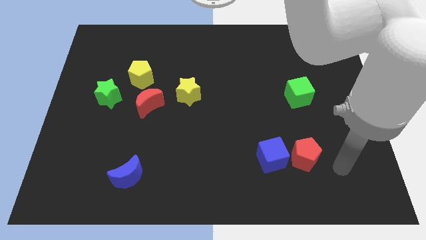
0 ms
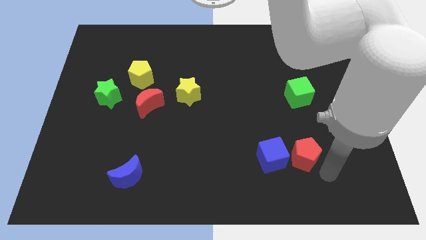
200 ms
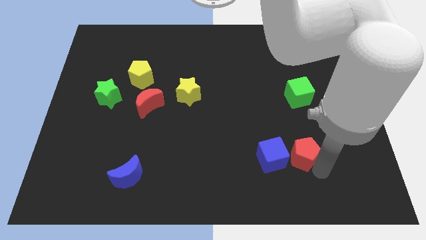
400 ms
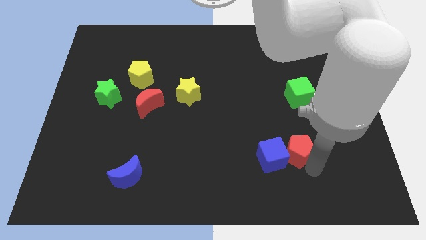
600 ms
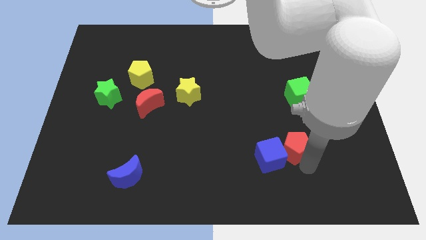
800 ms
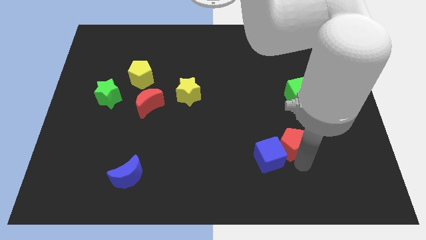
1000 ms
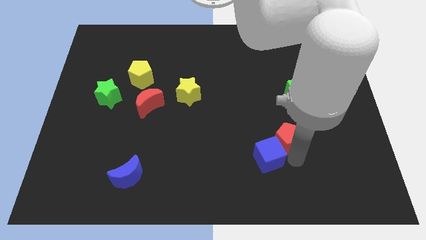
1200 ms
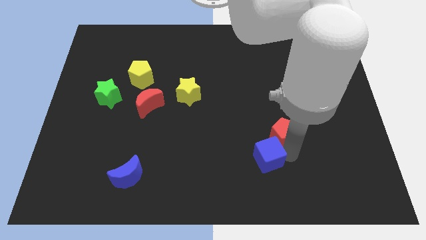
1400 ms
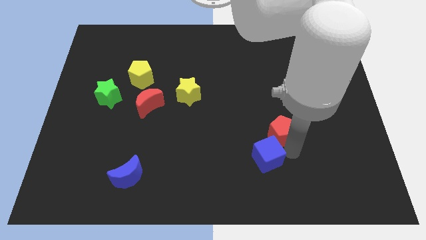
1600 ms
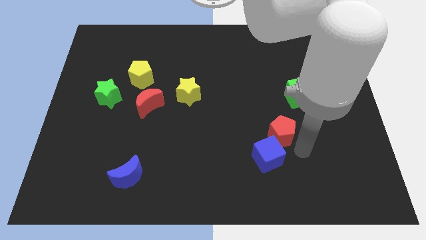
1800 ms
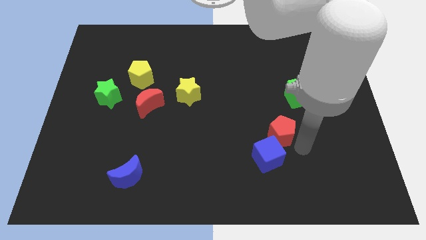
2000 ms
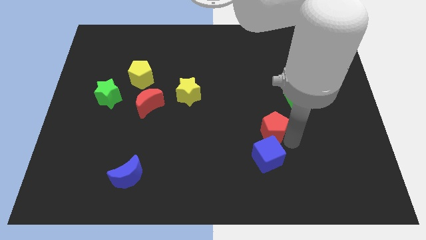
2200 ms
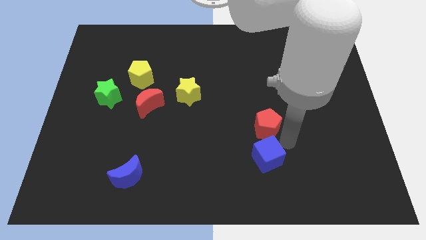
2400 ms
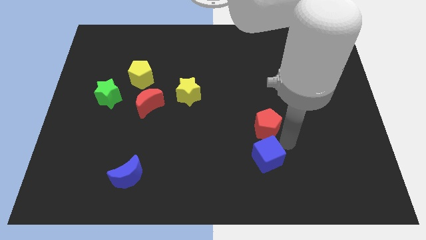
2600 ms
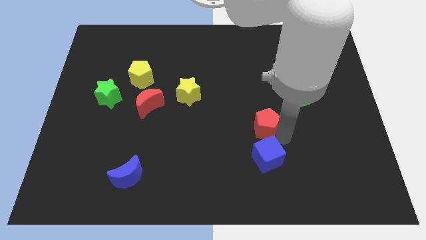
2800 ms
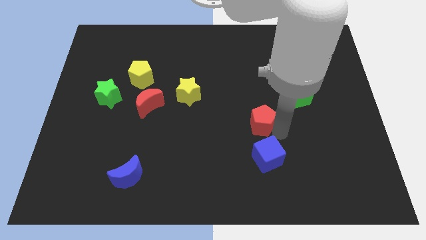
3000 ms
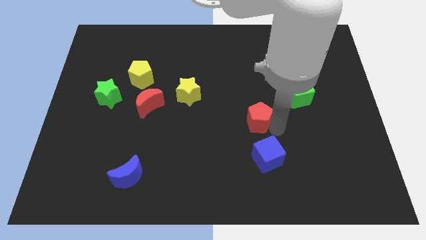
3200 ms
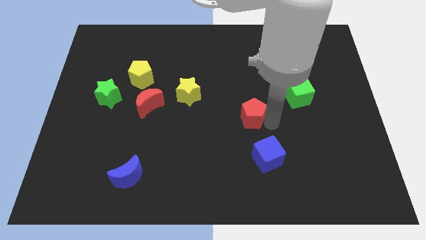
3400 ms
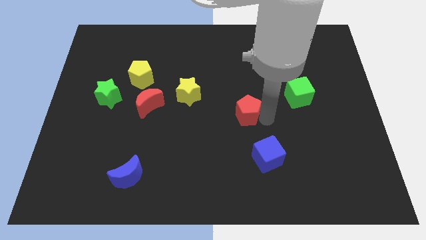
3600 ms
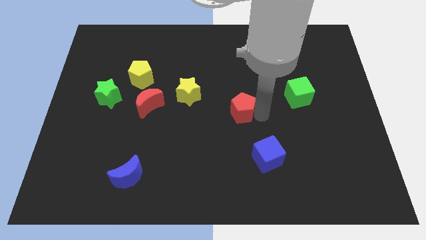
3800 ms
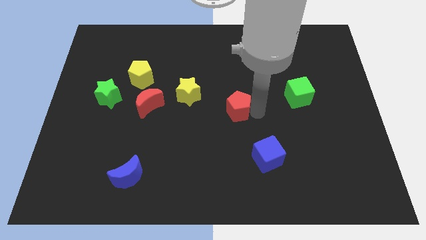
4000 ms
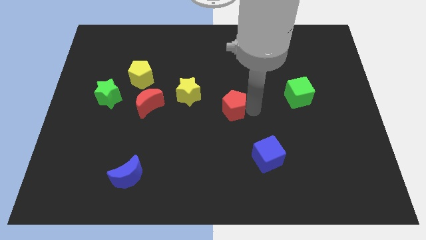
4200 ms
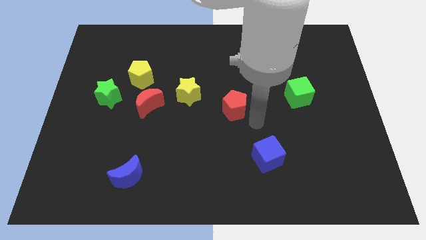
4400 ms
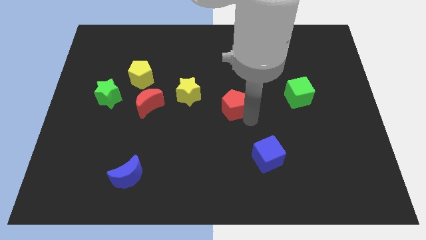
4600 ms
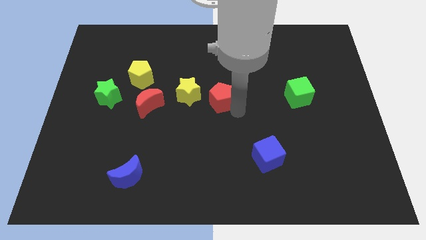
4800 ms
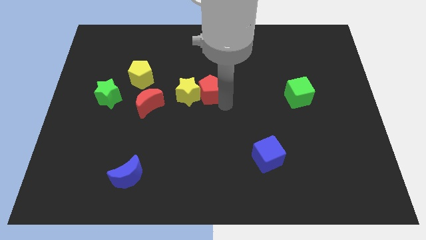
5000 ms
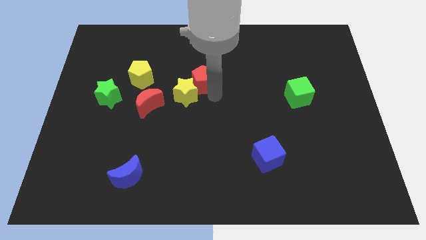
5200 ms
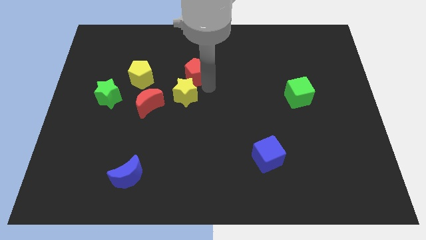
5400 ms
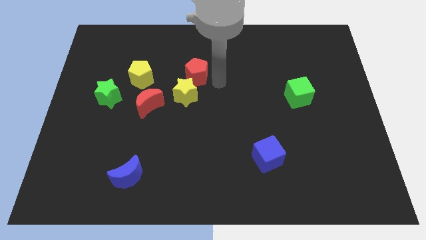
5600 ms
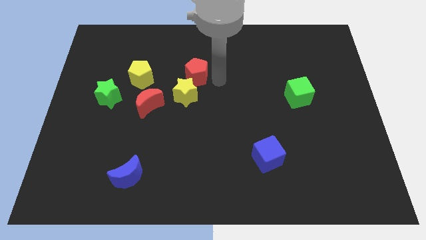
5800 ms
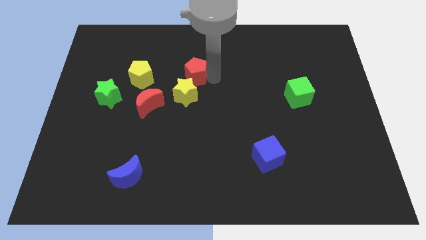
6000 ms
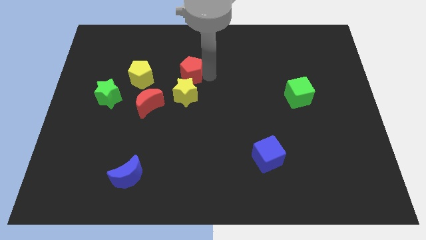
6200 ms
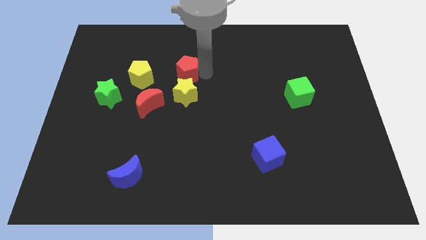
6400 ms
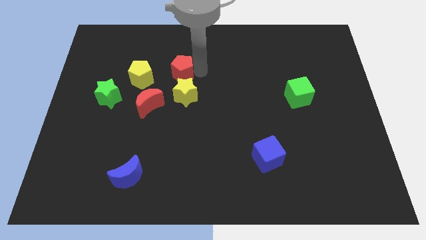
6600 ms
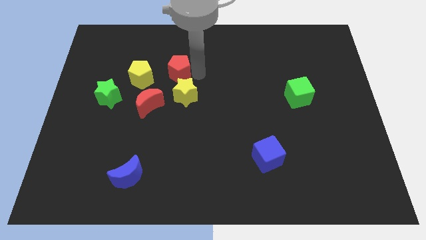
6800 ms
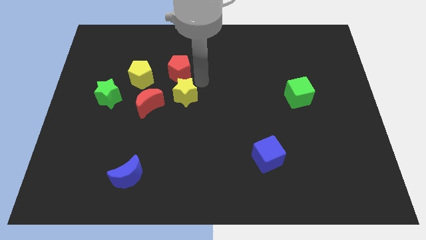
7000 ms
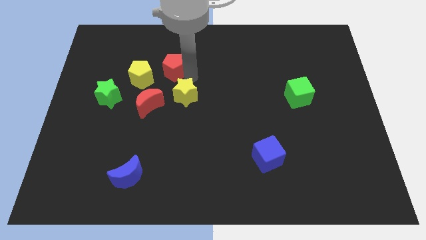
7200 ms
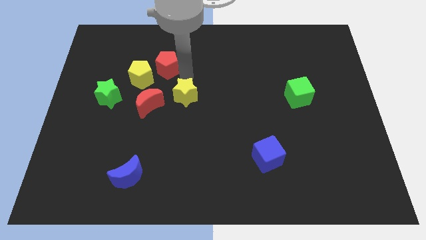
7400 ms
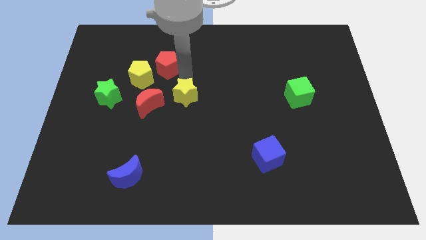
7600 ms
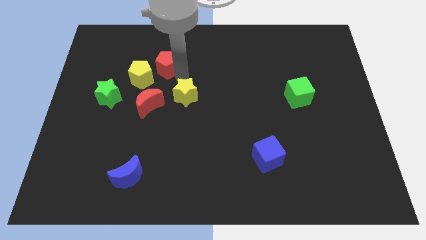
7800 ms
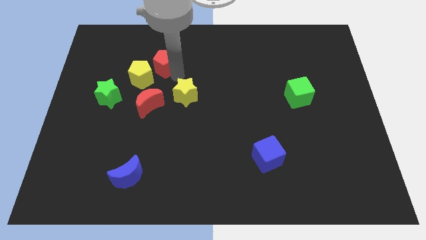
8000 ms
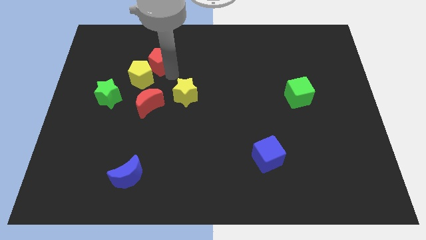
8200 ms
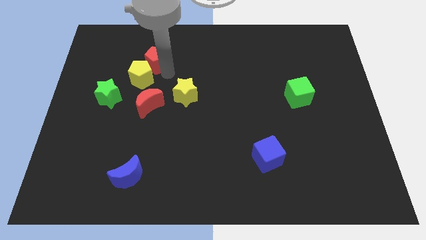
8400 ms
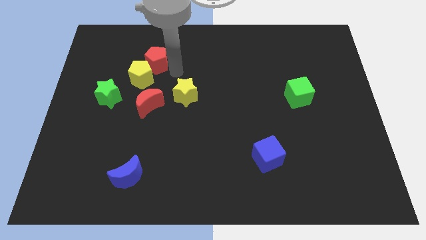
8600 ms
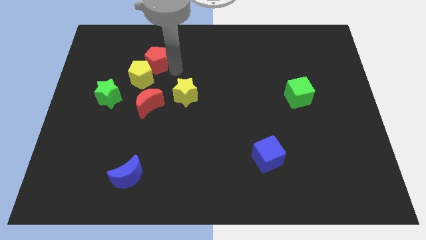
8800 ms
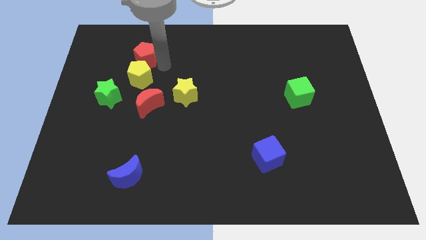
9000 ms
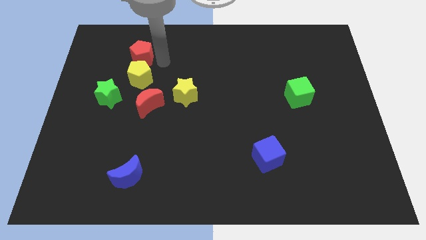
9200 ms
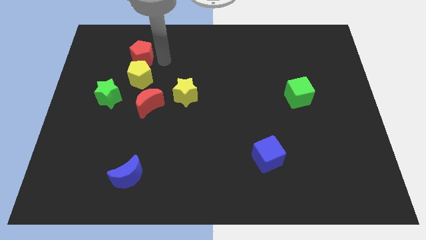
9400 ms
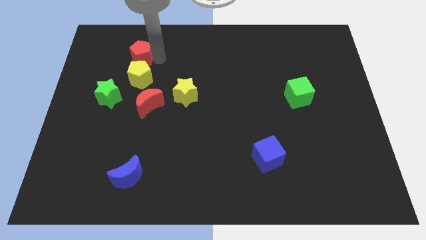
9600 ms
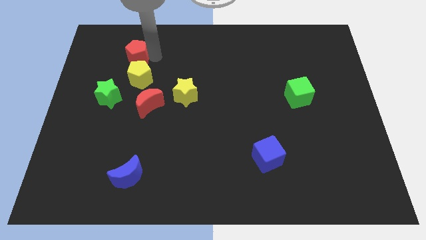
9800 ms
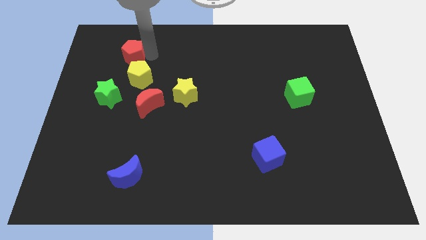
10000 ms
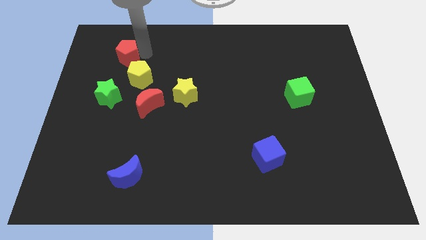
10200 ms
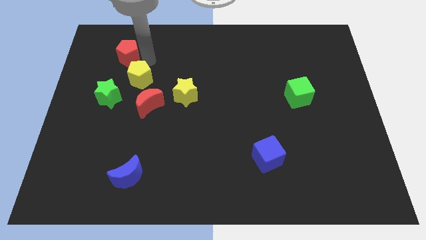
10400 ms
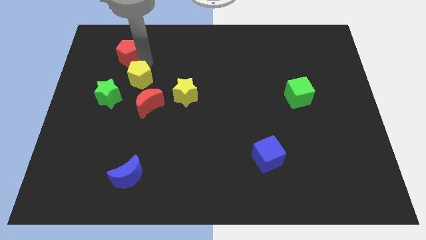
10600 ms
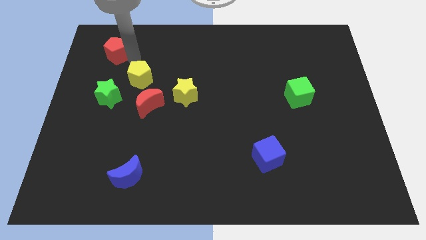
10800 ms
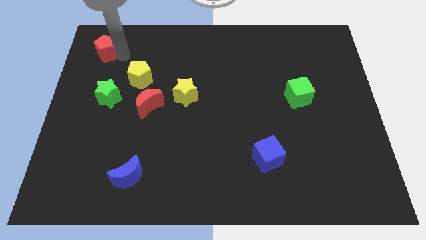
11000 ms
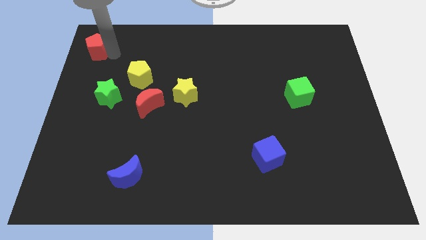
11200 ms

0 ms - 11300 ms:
slide the red pentagon to the top left
